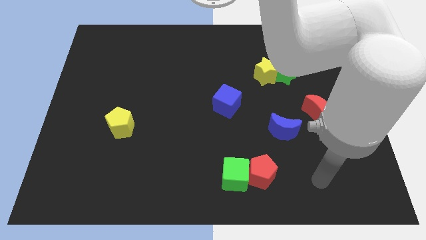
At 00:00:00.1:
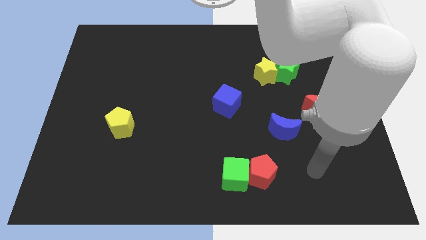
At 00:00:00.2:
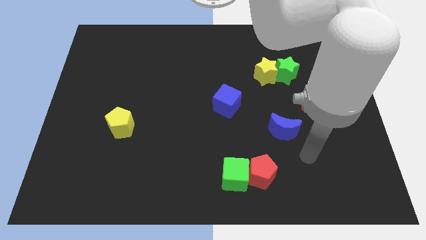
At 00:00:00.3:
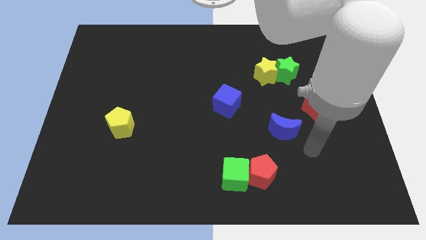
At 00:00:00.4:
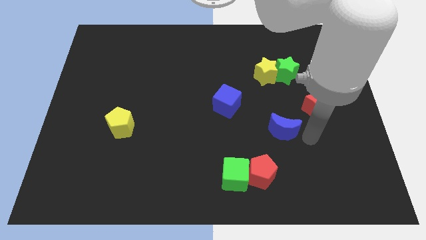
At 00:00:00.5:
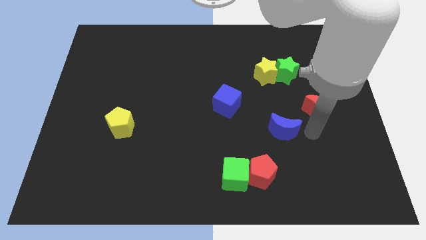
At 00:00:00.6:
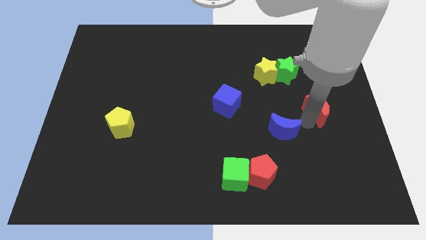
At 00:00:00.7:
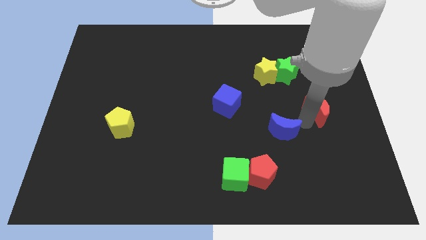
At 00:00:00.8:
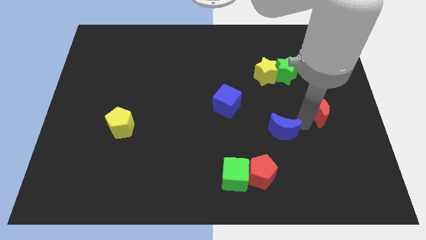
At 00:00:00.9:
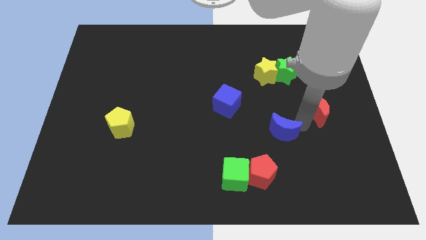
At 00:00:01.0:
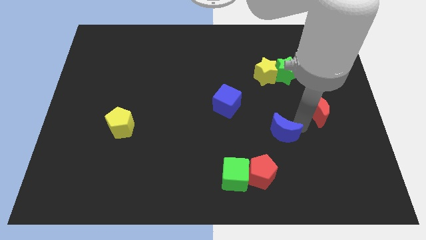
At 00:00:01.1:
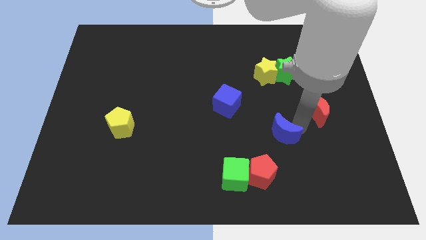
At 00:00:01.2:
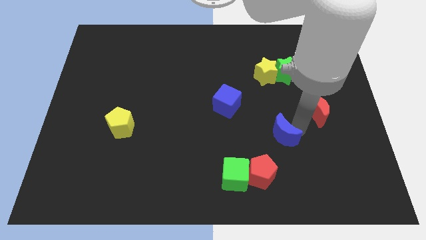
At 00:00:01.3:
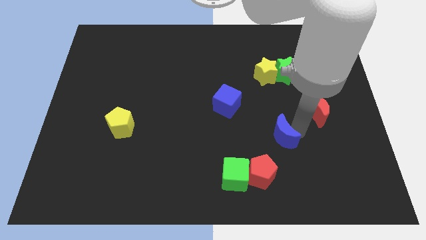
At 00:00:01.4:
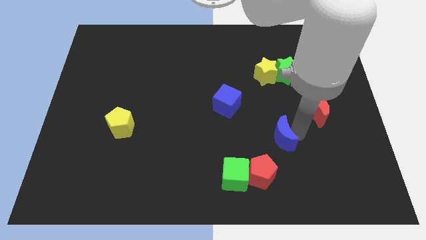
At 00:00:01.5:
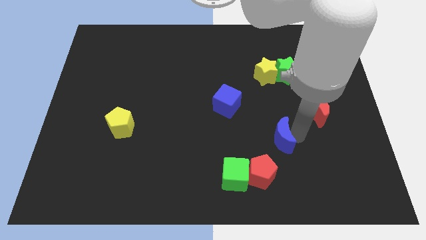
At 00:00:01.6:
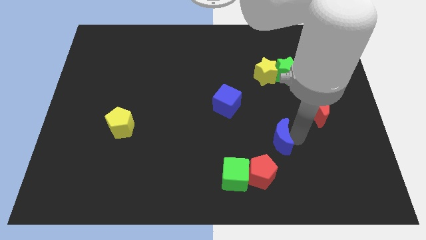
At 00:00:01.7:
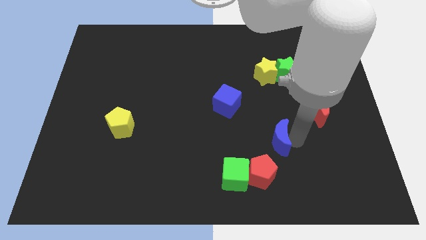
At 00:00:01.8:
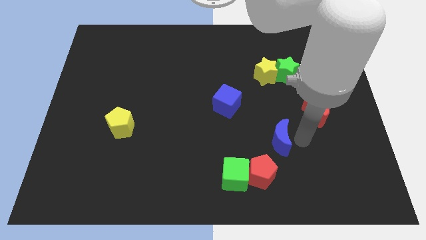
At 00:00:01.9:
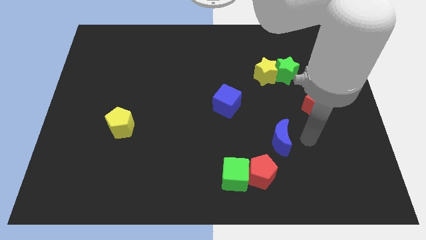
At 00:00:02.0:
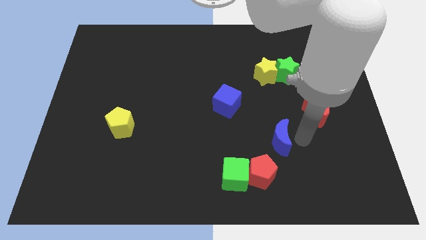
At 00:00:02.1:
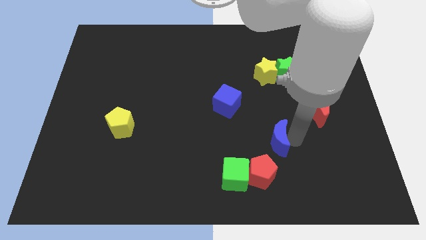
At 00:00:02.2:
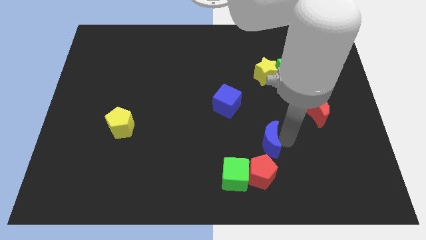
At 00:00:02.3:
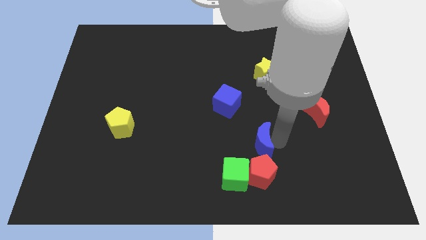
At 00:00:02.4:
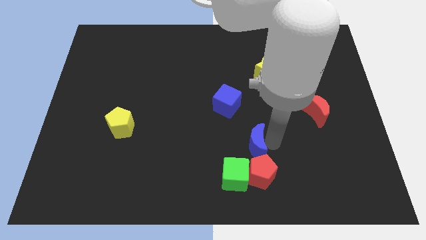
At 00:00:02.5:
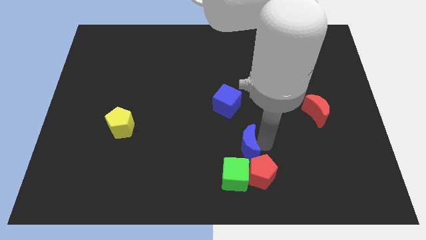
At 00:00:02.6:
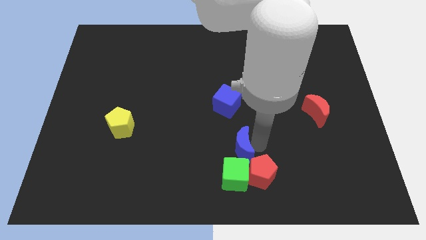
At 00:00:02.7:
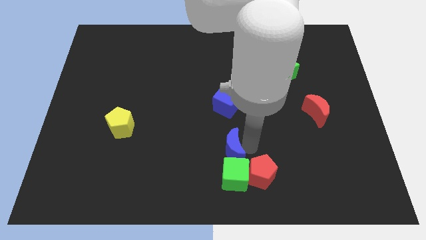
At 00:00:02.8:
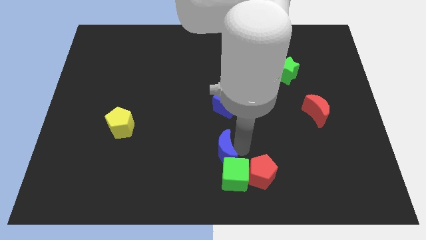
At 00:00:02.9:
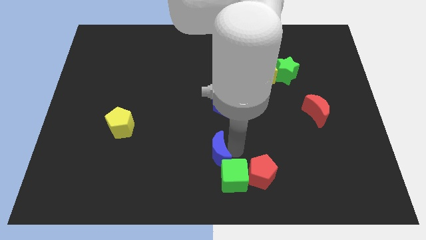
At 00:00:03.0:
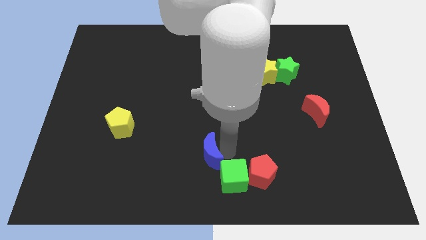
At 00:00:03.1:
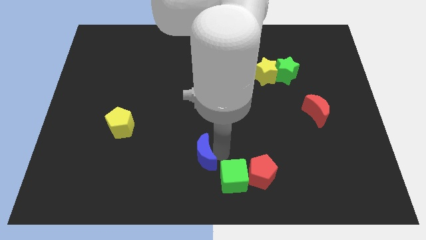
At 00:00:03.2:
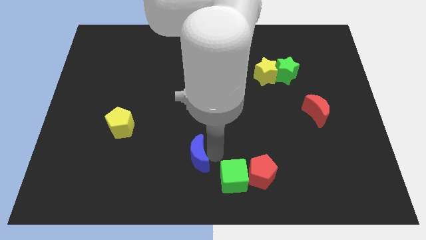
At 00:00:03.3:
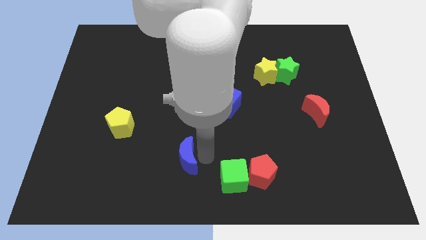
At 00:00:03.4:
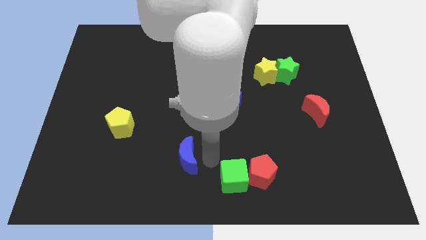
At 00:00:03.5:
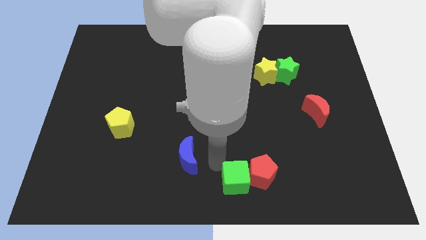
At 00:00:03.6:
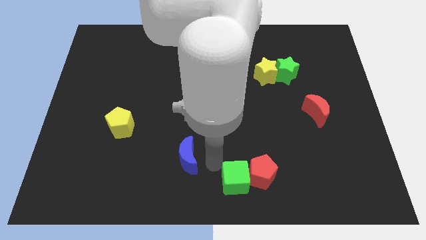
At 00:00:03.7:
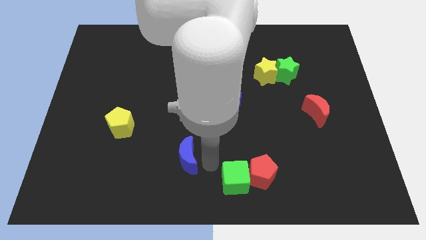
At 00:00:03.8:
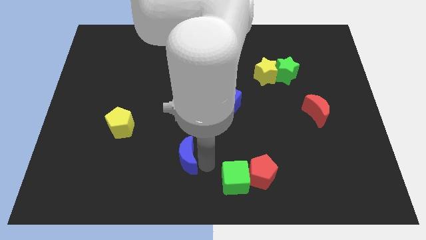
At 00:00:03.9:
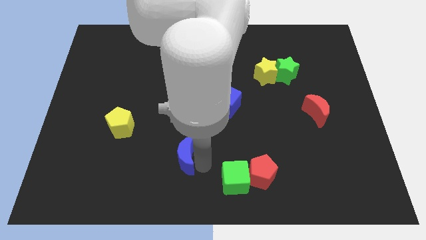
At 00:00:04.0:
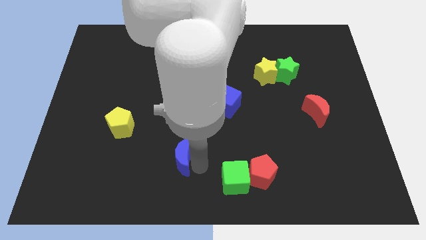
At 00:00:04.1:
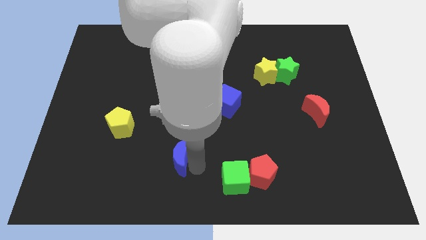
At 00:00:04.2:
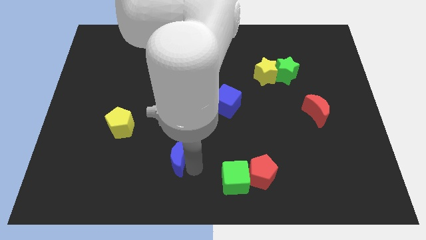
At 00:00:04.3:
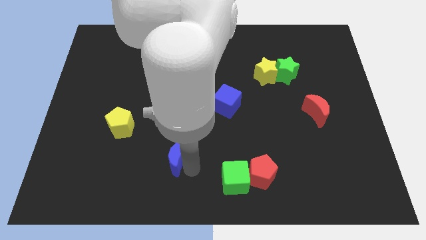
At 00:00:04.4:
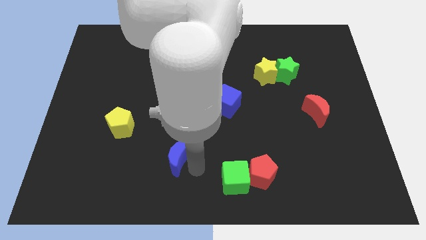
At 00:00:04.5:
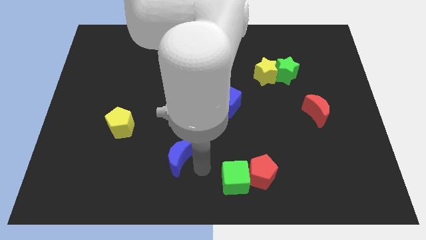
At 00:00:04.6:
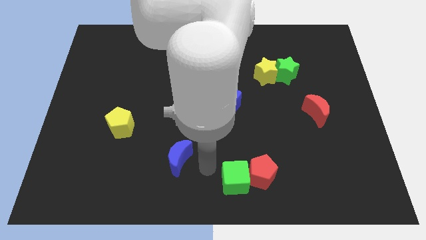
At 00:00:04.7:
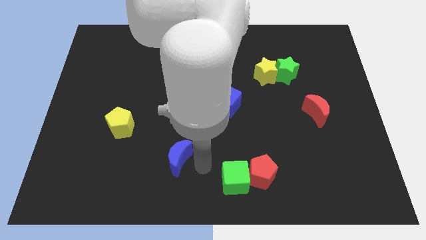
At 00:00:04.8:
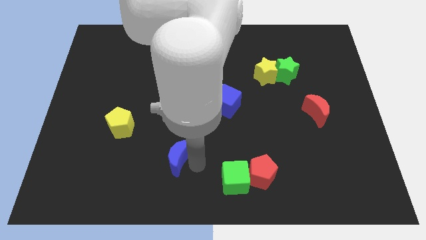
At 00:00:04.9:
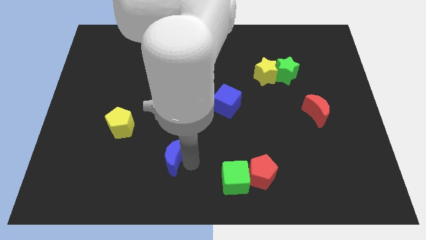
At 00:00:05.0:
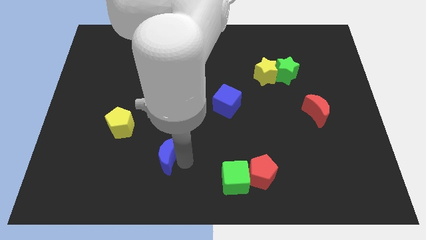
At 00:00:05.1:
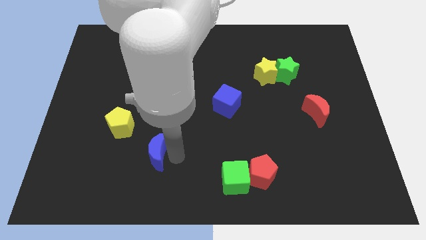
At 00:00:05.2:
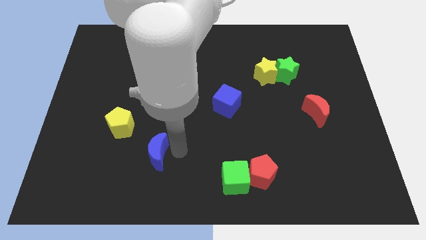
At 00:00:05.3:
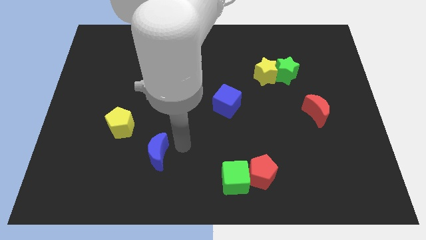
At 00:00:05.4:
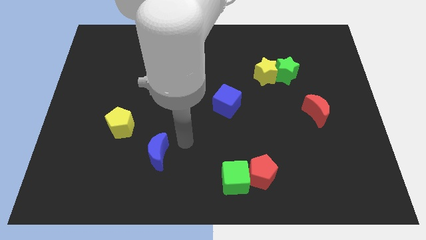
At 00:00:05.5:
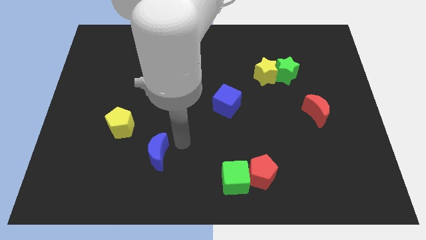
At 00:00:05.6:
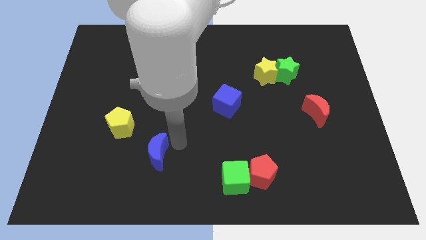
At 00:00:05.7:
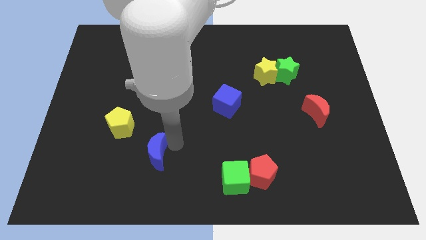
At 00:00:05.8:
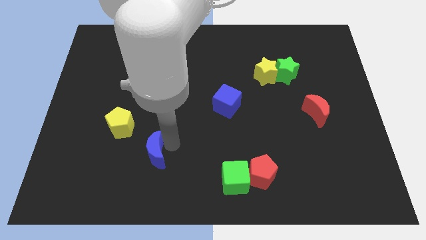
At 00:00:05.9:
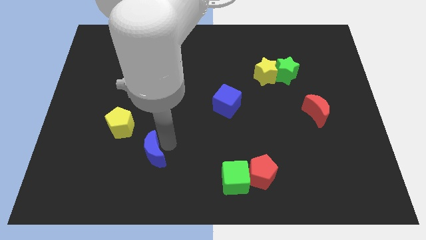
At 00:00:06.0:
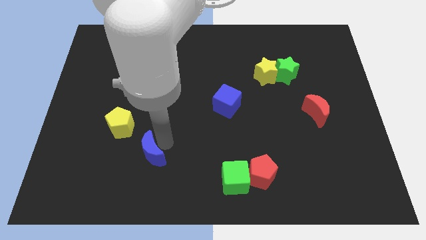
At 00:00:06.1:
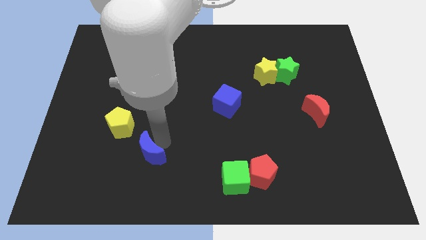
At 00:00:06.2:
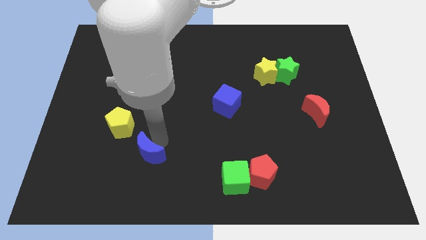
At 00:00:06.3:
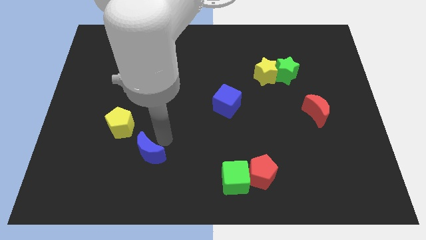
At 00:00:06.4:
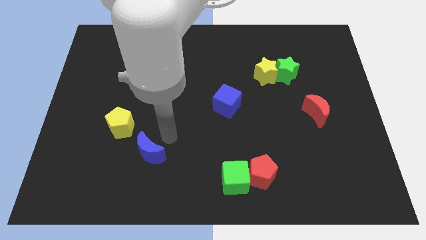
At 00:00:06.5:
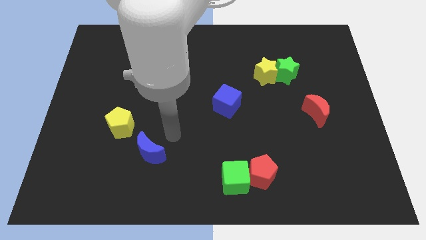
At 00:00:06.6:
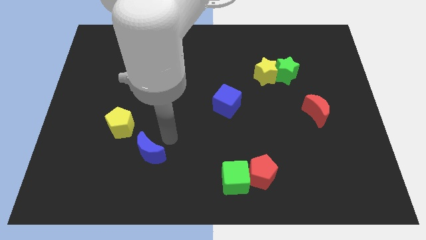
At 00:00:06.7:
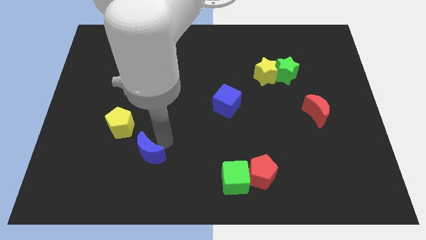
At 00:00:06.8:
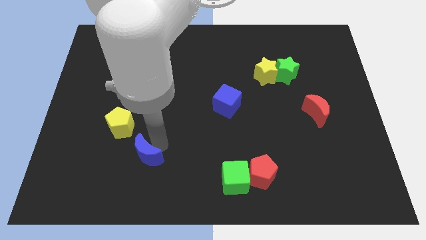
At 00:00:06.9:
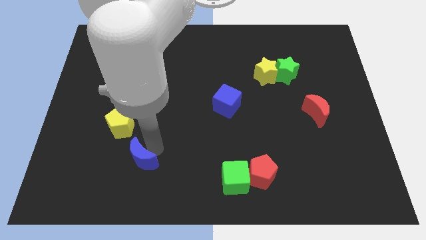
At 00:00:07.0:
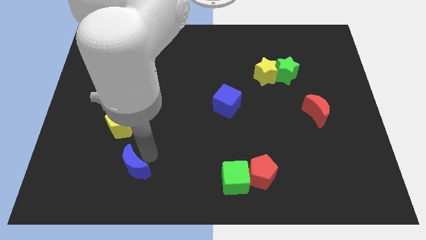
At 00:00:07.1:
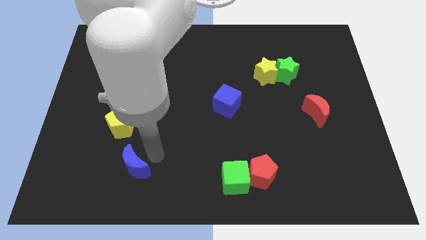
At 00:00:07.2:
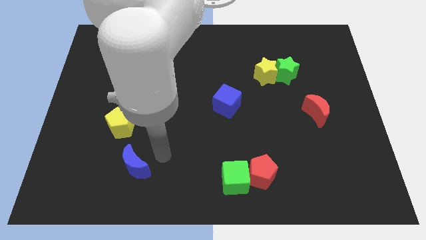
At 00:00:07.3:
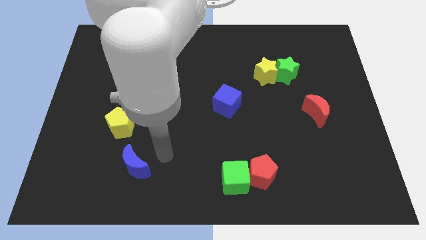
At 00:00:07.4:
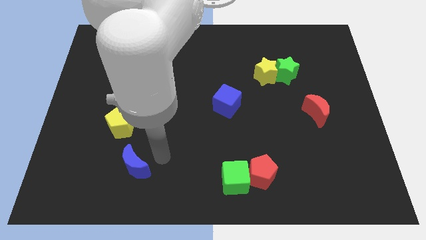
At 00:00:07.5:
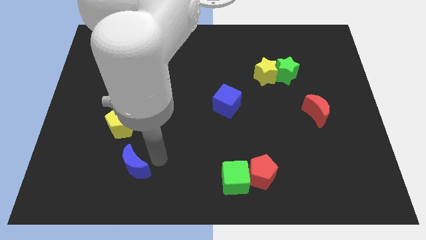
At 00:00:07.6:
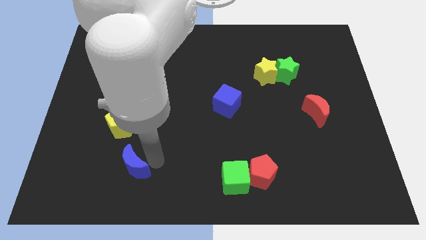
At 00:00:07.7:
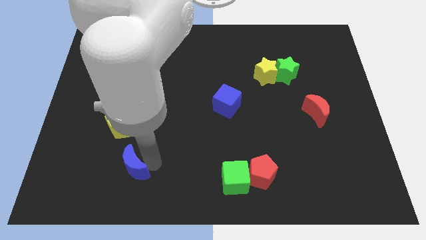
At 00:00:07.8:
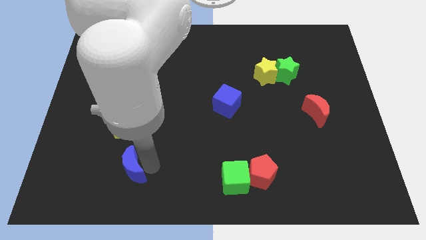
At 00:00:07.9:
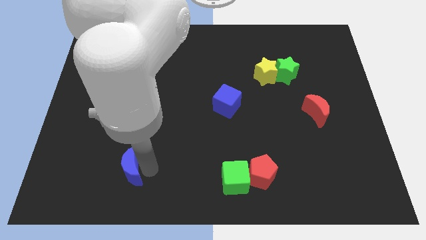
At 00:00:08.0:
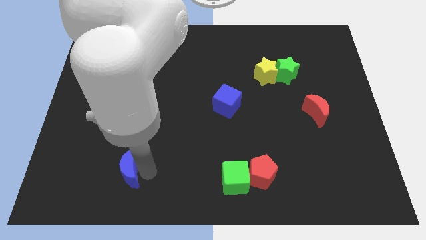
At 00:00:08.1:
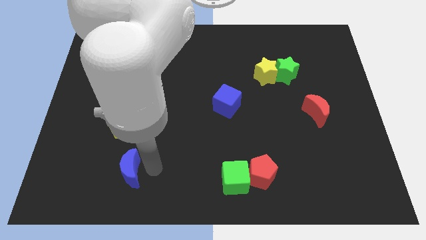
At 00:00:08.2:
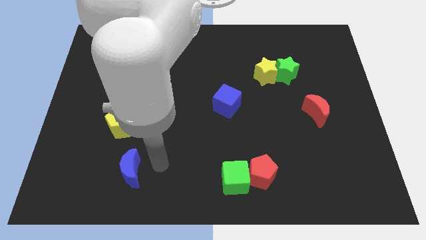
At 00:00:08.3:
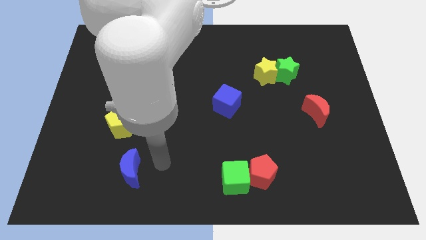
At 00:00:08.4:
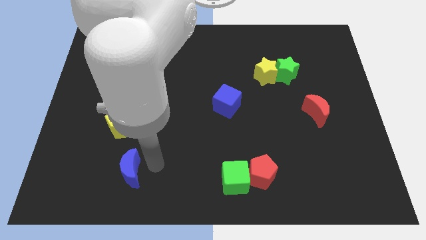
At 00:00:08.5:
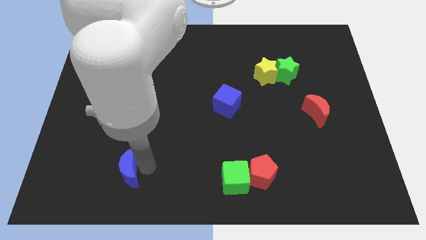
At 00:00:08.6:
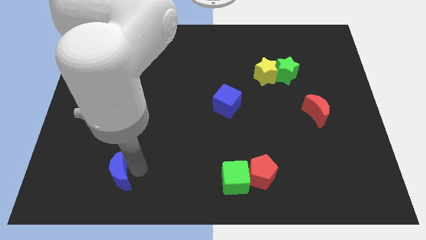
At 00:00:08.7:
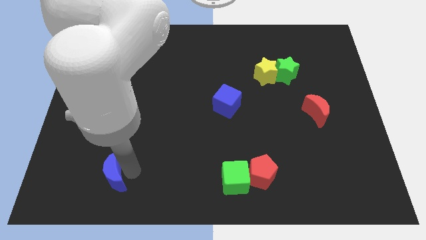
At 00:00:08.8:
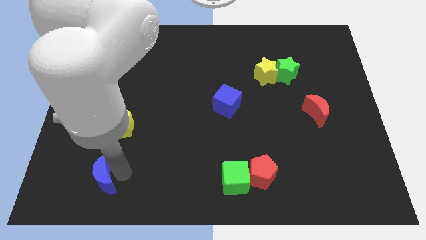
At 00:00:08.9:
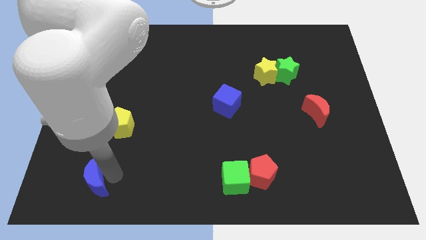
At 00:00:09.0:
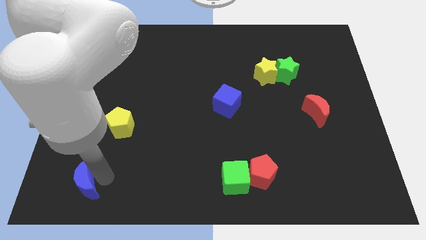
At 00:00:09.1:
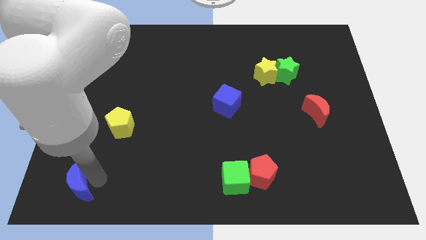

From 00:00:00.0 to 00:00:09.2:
slide the blue moon to the bottom left
